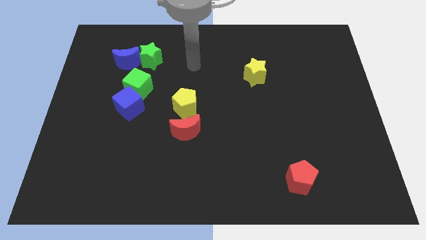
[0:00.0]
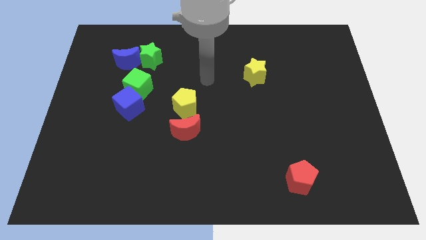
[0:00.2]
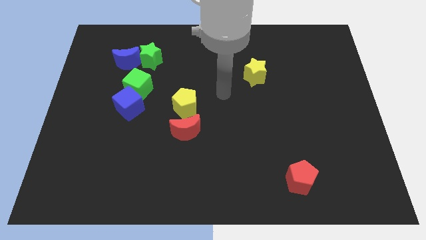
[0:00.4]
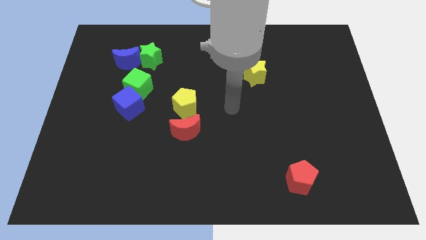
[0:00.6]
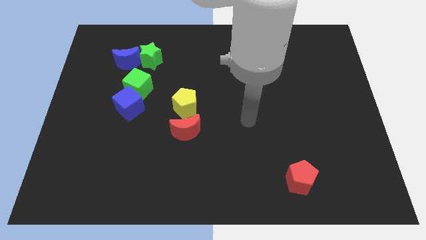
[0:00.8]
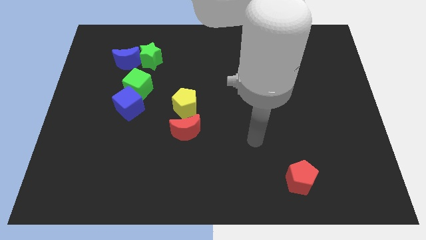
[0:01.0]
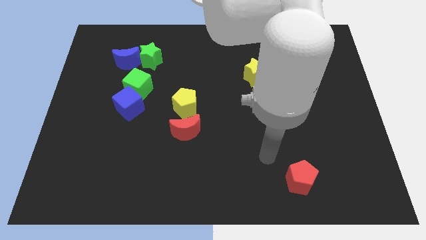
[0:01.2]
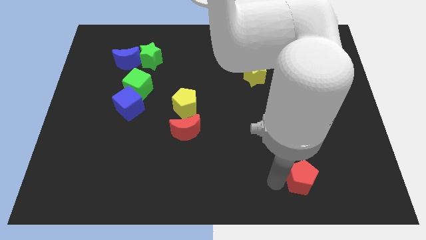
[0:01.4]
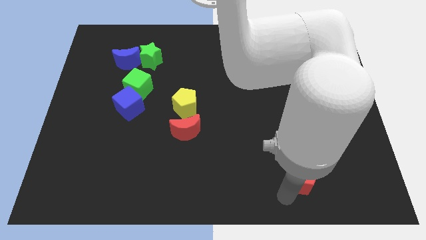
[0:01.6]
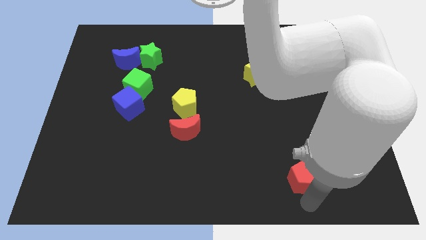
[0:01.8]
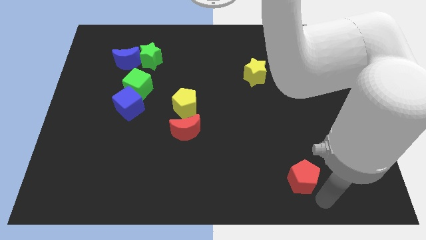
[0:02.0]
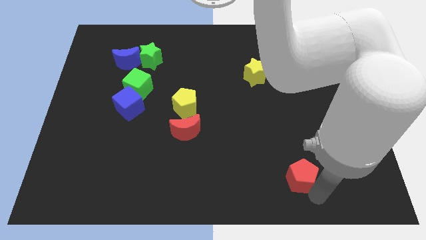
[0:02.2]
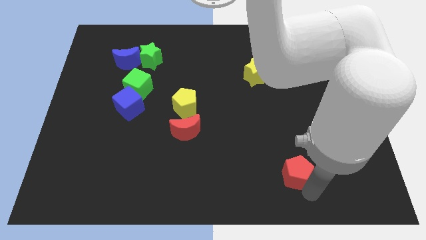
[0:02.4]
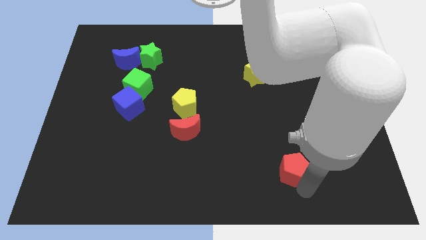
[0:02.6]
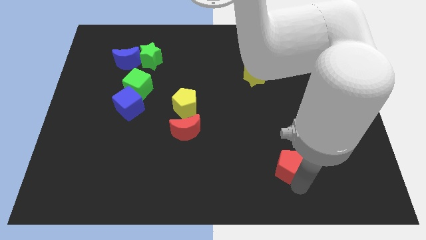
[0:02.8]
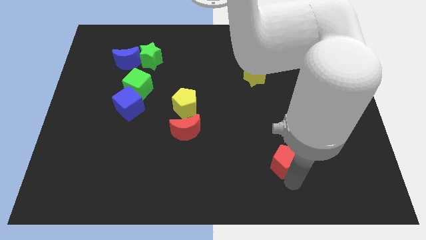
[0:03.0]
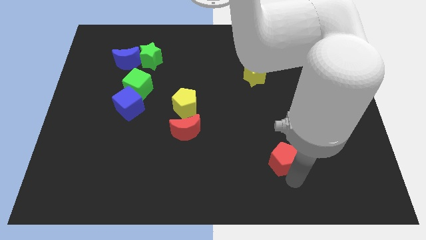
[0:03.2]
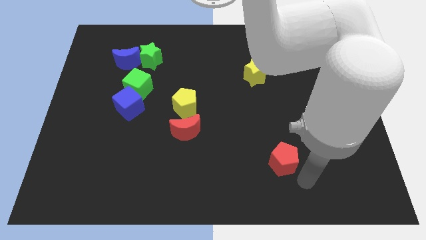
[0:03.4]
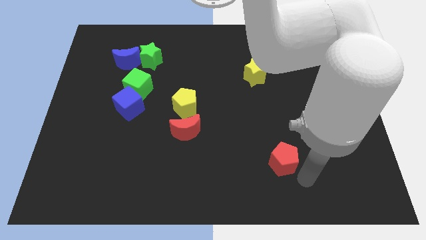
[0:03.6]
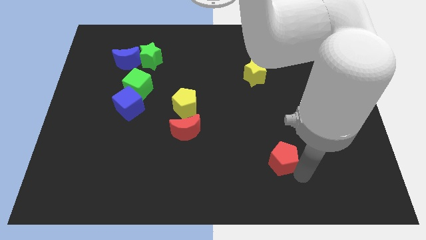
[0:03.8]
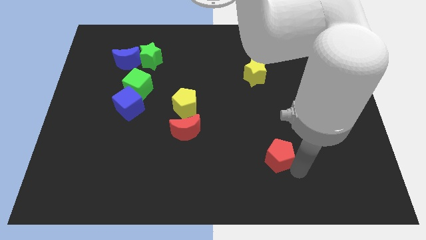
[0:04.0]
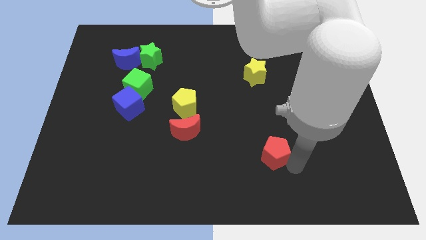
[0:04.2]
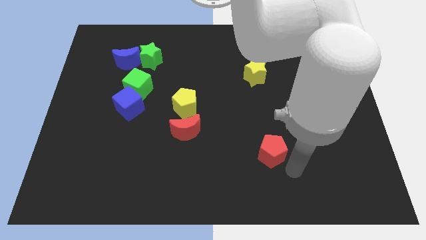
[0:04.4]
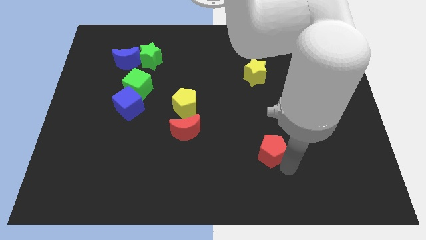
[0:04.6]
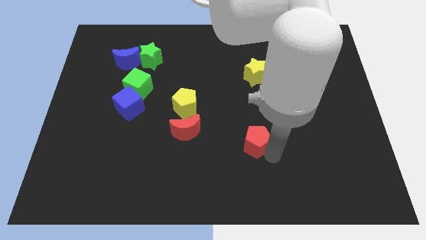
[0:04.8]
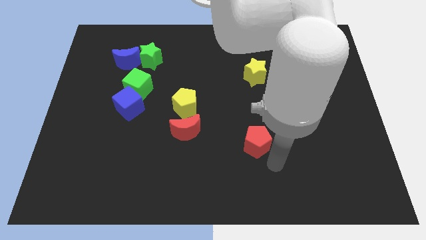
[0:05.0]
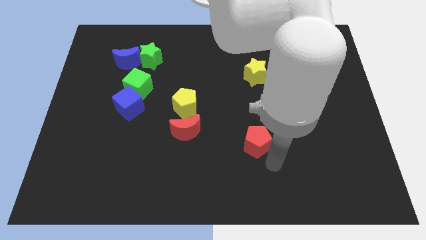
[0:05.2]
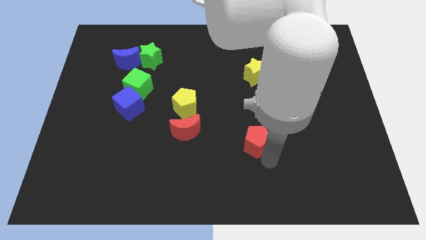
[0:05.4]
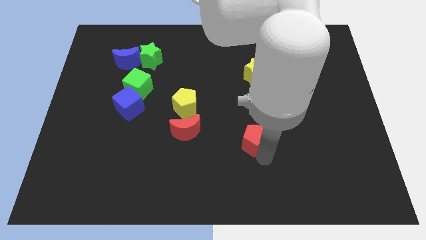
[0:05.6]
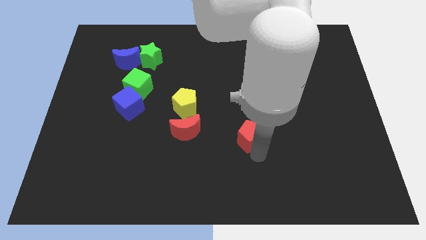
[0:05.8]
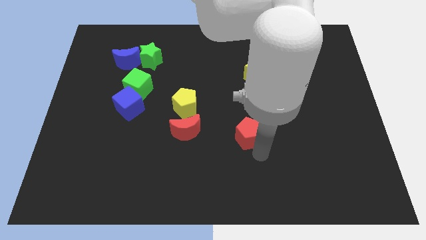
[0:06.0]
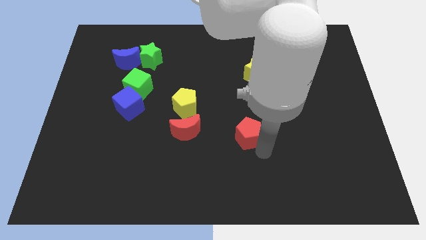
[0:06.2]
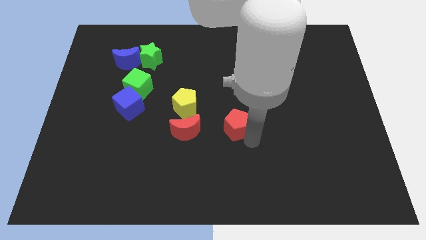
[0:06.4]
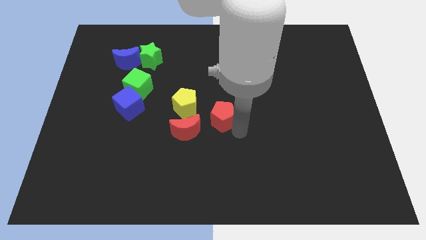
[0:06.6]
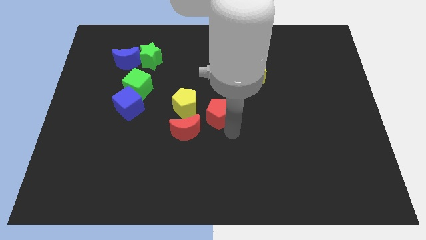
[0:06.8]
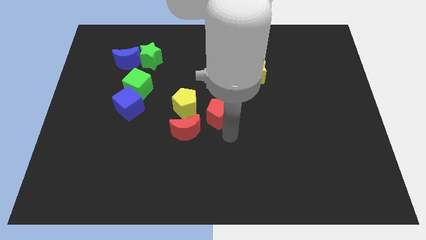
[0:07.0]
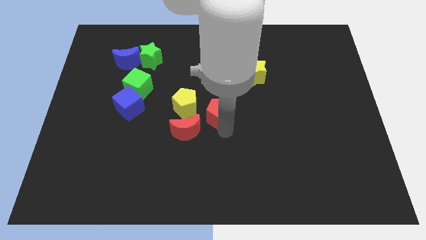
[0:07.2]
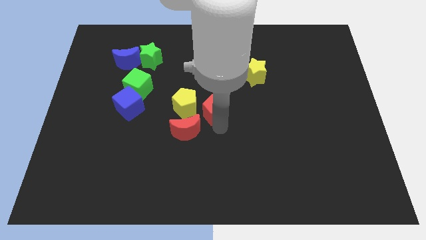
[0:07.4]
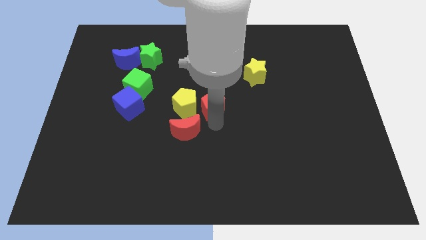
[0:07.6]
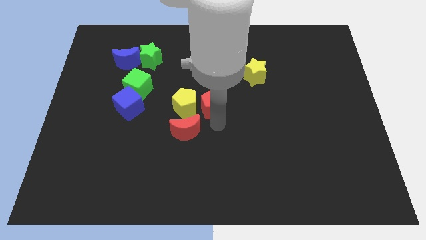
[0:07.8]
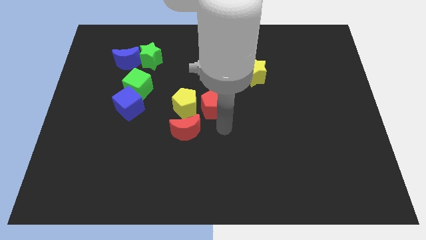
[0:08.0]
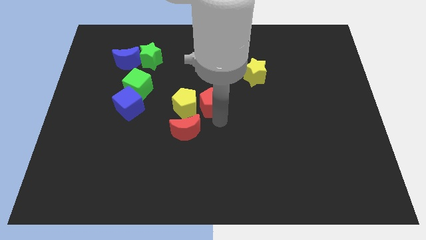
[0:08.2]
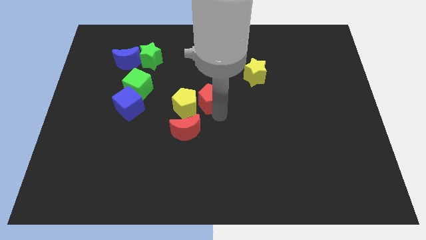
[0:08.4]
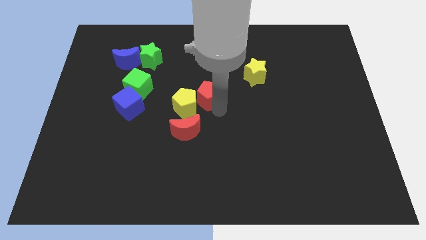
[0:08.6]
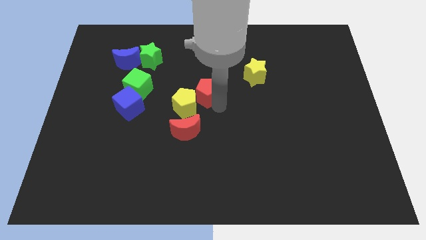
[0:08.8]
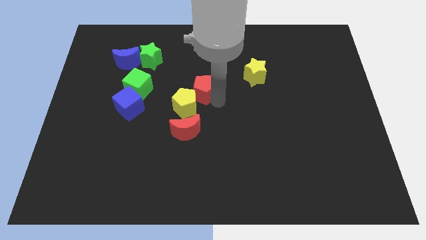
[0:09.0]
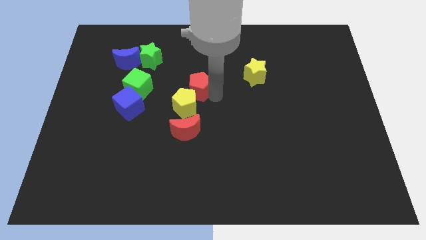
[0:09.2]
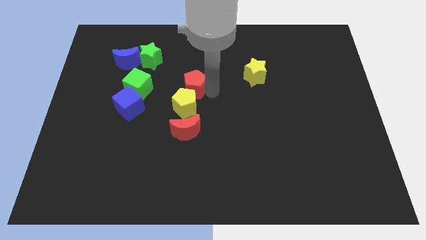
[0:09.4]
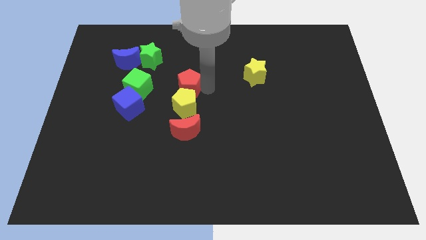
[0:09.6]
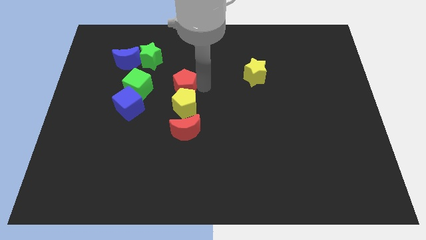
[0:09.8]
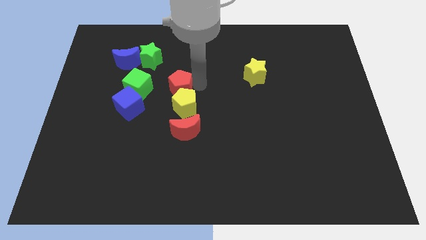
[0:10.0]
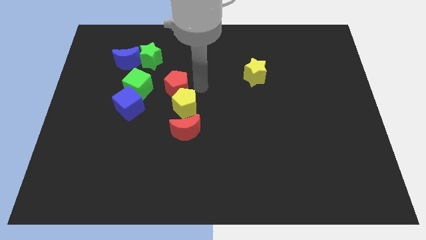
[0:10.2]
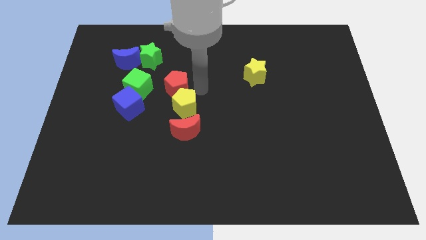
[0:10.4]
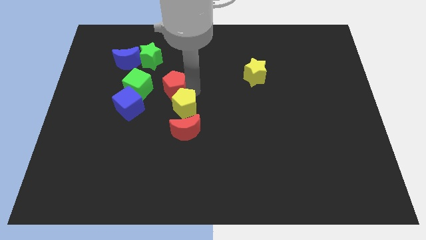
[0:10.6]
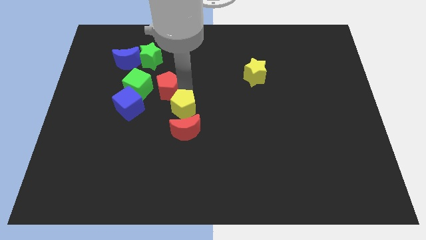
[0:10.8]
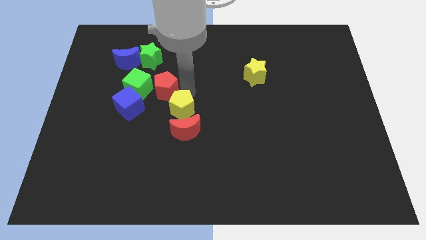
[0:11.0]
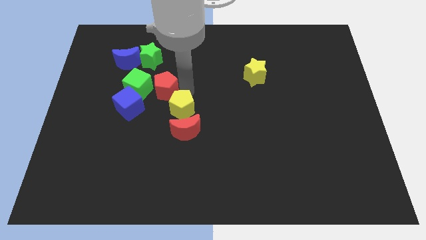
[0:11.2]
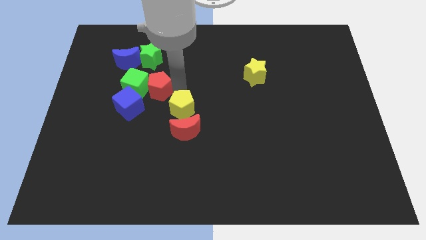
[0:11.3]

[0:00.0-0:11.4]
put the red pentagon to the green cube

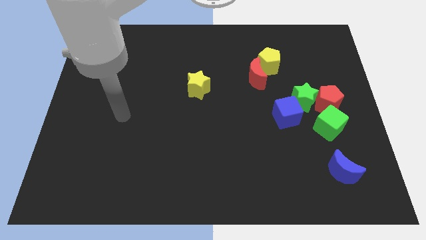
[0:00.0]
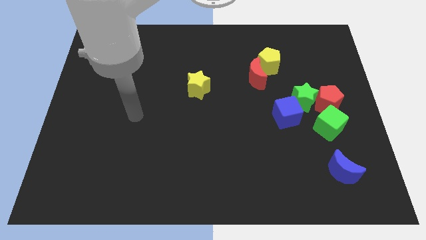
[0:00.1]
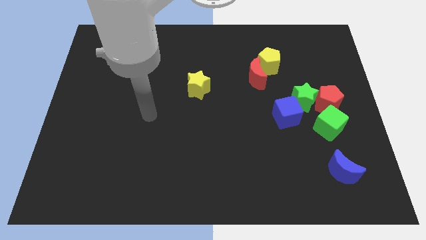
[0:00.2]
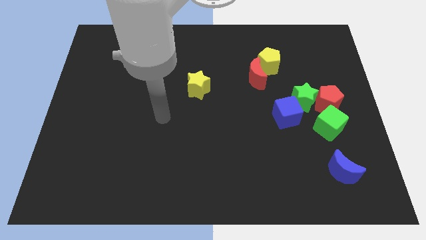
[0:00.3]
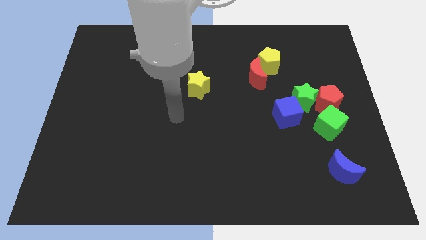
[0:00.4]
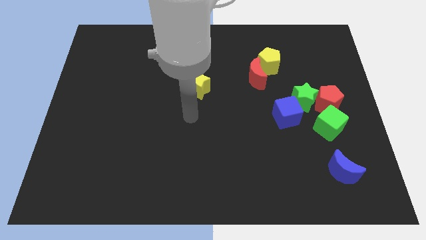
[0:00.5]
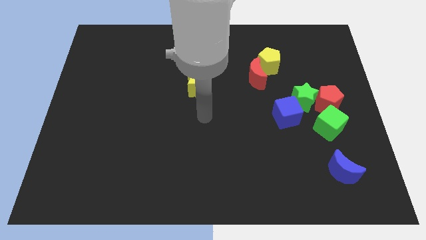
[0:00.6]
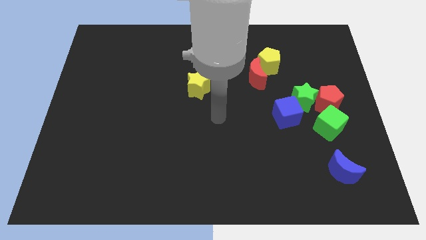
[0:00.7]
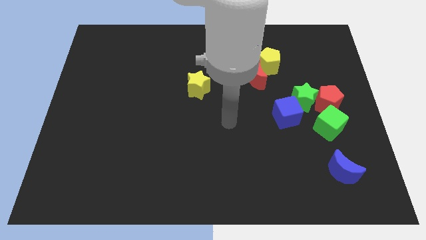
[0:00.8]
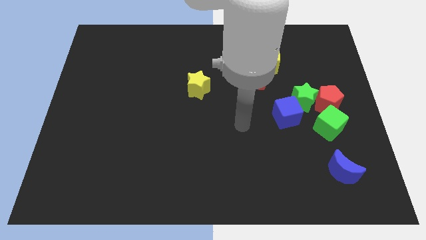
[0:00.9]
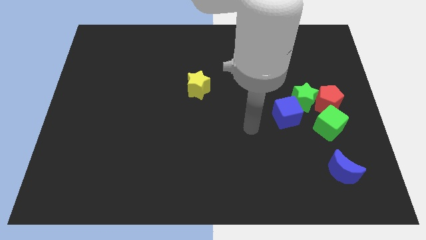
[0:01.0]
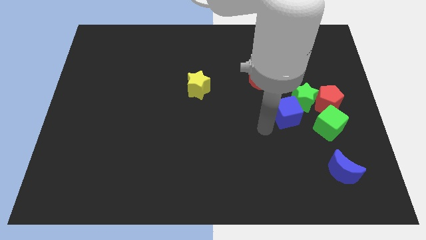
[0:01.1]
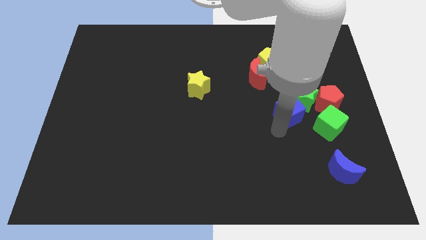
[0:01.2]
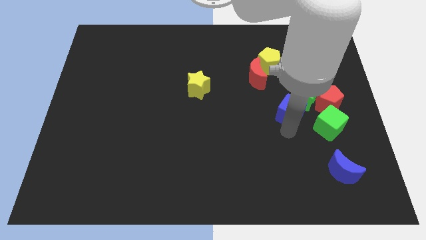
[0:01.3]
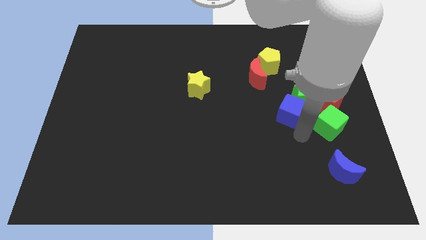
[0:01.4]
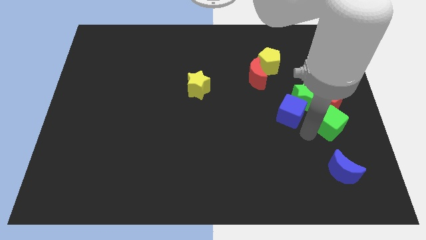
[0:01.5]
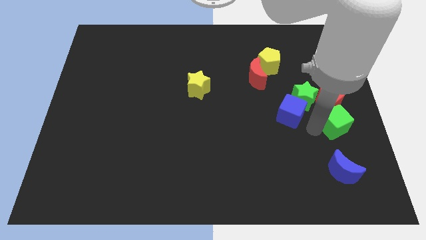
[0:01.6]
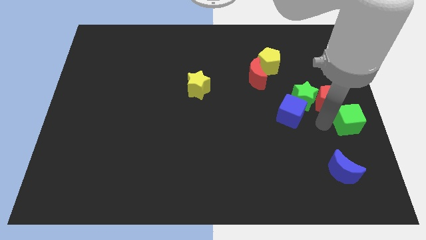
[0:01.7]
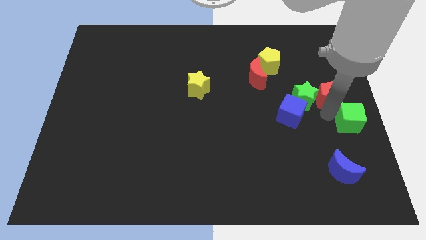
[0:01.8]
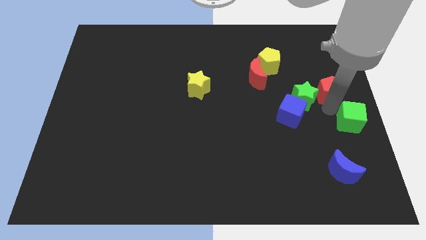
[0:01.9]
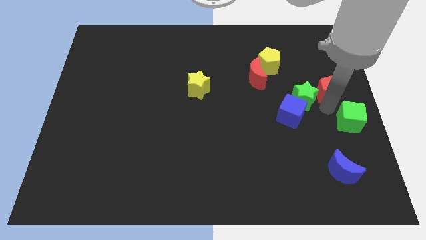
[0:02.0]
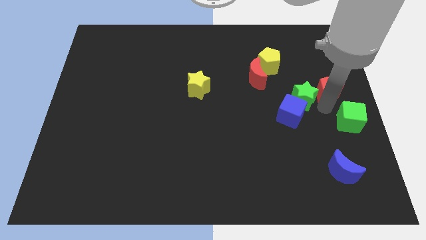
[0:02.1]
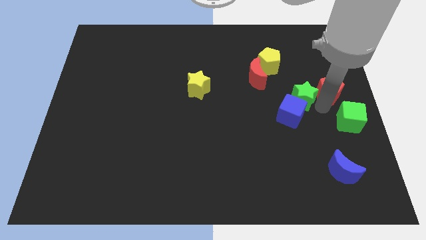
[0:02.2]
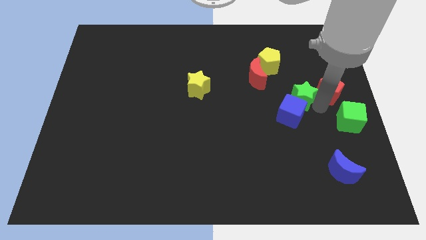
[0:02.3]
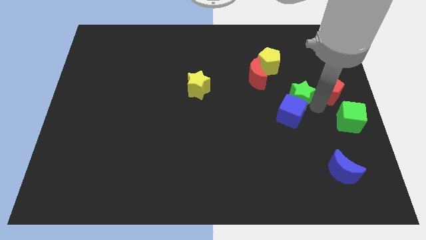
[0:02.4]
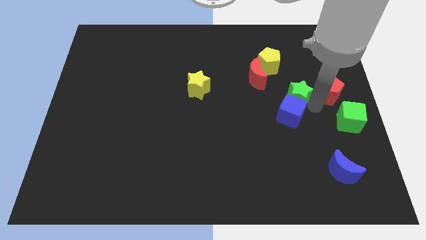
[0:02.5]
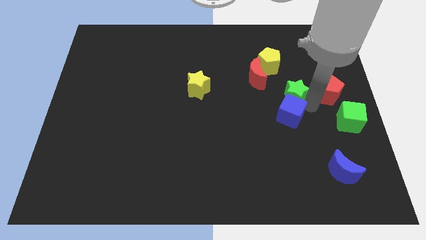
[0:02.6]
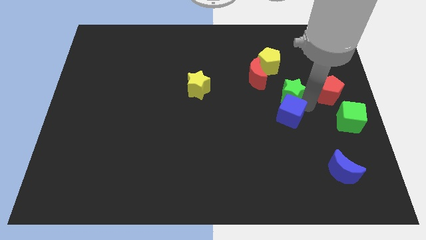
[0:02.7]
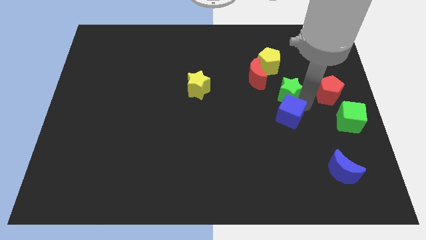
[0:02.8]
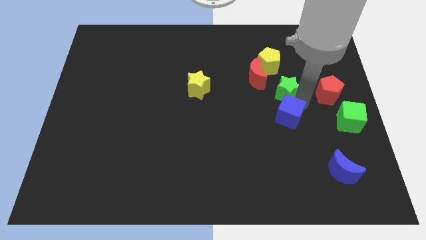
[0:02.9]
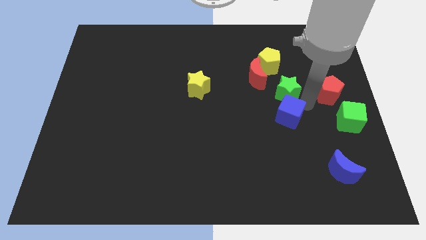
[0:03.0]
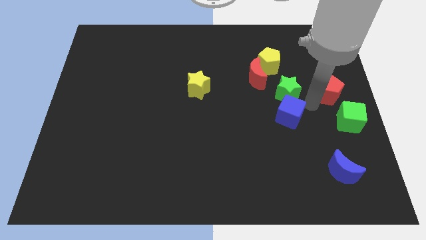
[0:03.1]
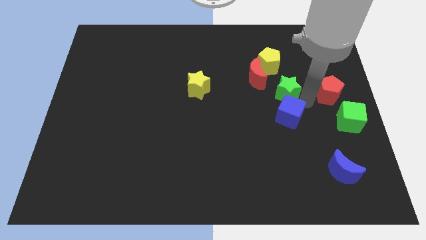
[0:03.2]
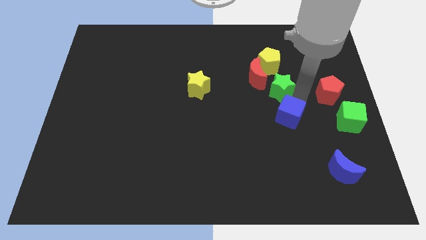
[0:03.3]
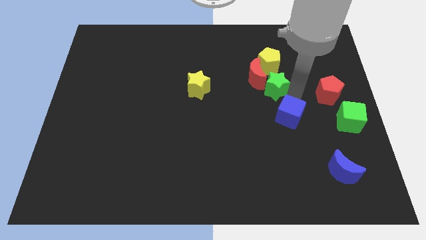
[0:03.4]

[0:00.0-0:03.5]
slide the green star close to the red moon
